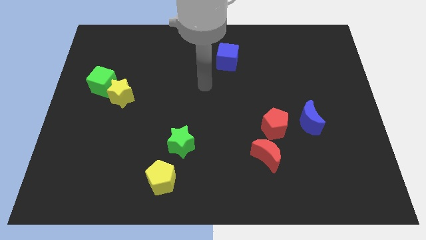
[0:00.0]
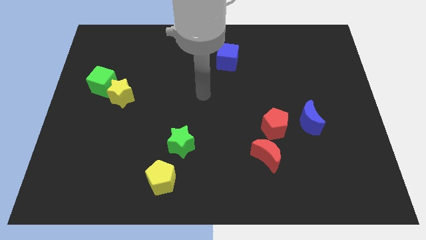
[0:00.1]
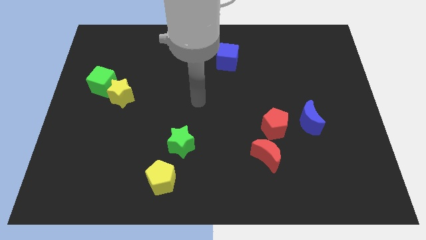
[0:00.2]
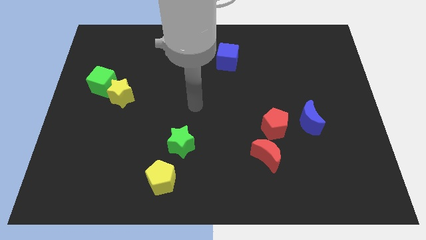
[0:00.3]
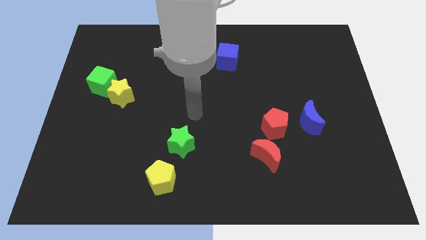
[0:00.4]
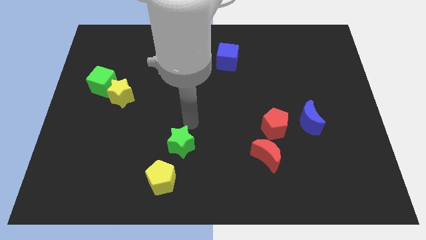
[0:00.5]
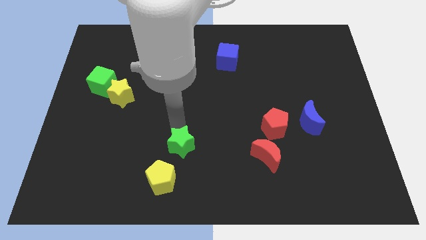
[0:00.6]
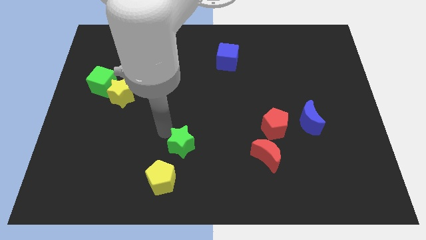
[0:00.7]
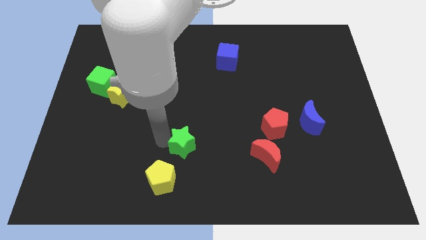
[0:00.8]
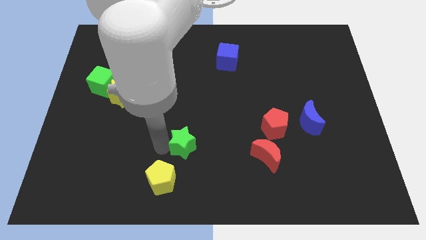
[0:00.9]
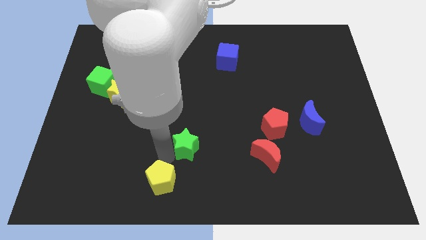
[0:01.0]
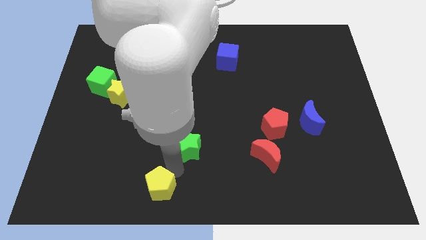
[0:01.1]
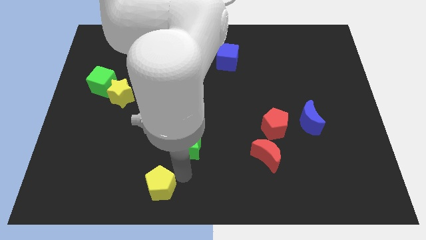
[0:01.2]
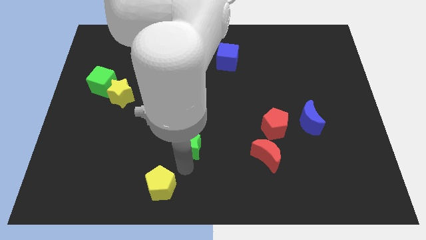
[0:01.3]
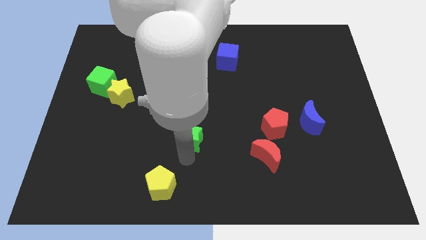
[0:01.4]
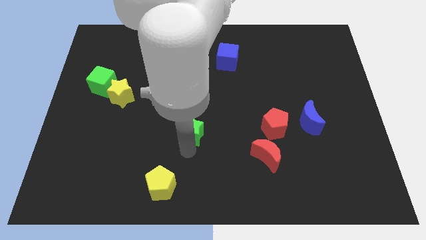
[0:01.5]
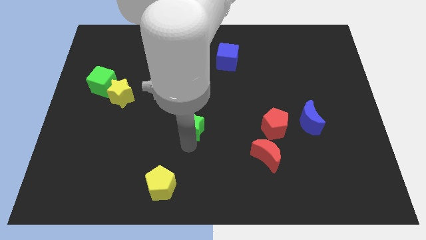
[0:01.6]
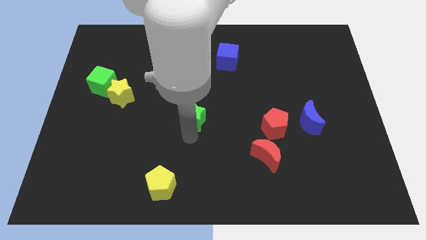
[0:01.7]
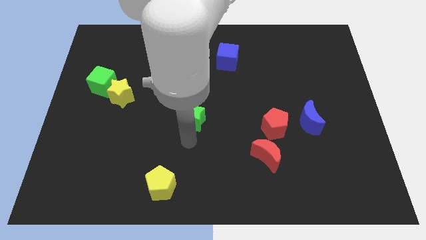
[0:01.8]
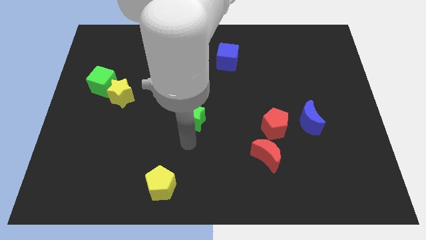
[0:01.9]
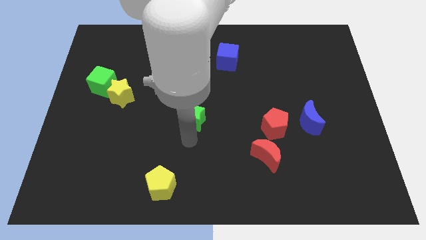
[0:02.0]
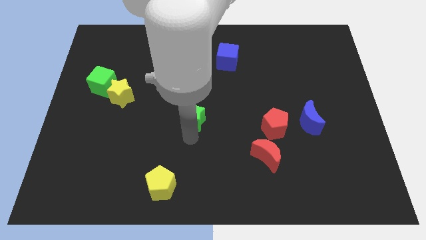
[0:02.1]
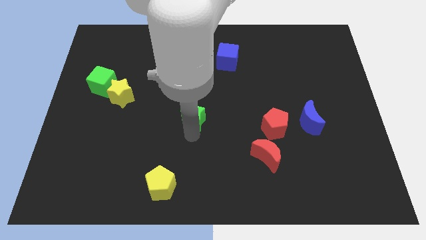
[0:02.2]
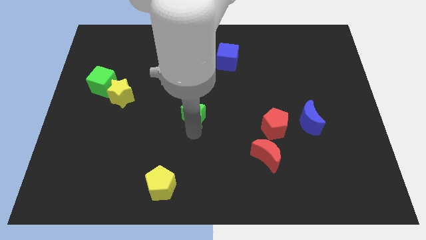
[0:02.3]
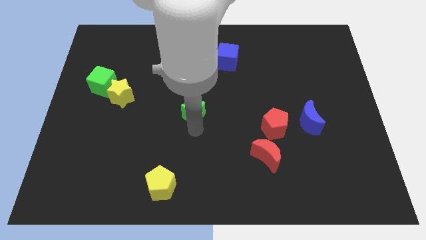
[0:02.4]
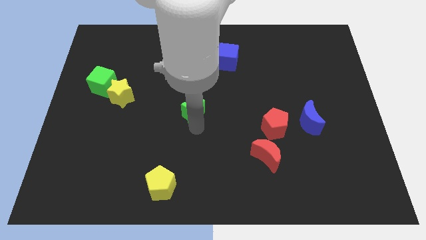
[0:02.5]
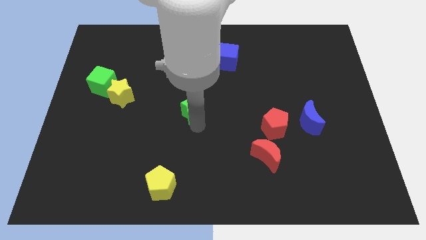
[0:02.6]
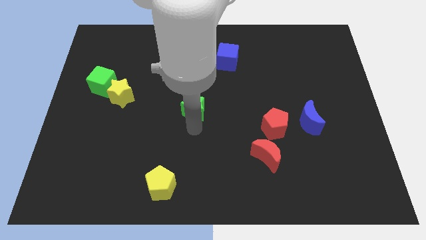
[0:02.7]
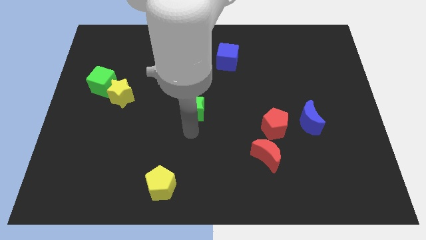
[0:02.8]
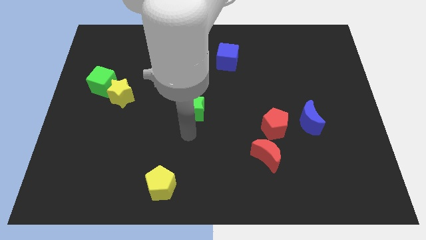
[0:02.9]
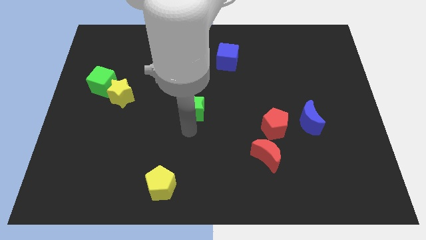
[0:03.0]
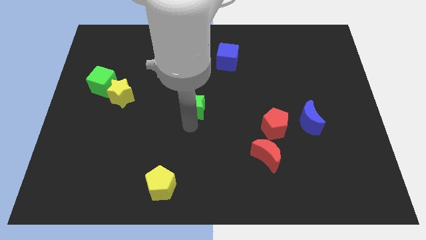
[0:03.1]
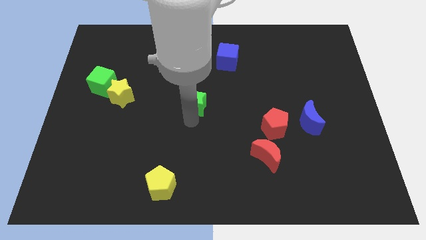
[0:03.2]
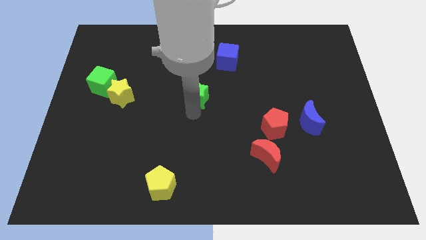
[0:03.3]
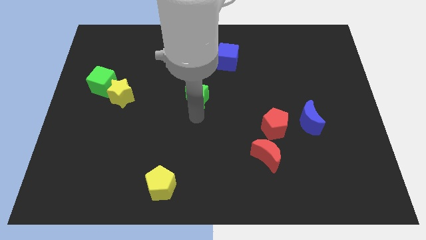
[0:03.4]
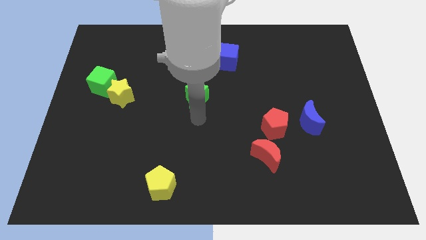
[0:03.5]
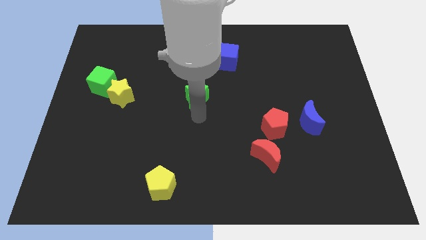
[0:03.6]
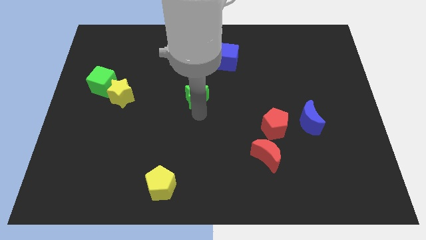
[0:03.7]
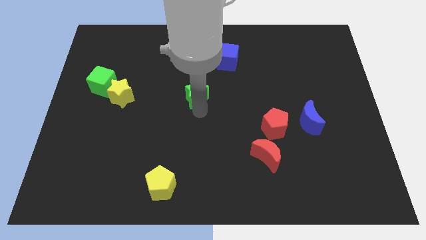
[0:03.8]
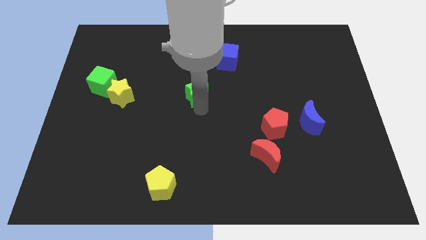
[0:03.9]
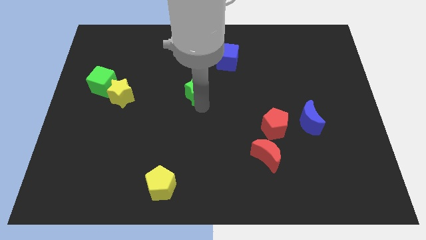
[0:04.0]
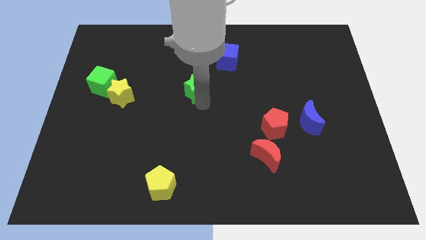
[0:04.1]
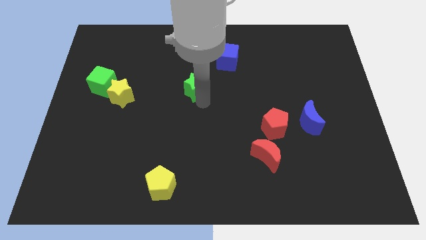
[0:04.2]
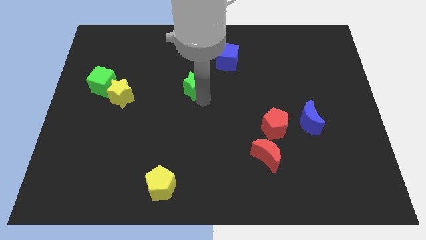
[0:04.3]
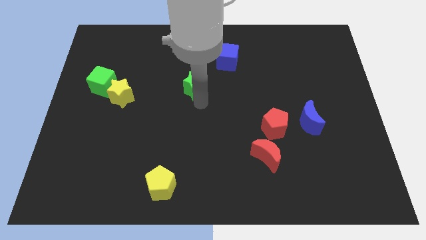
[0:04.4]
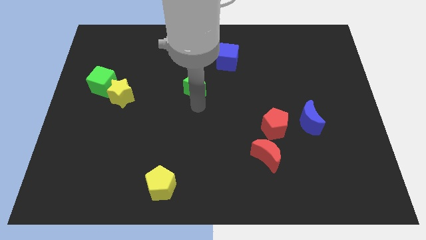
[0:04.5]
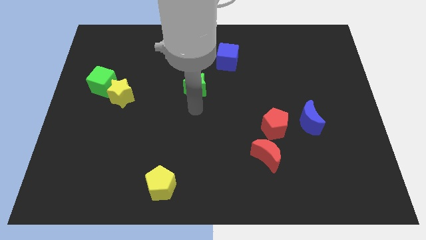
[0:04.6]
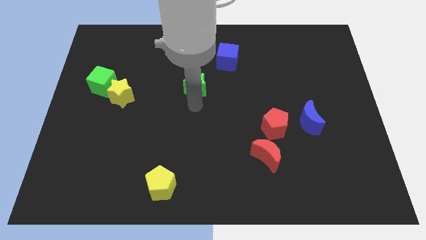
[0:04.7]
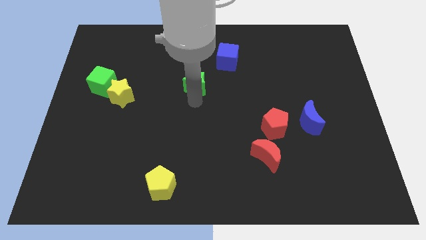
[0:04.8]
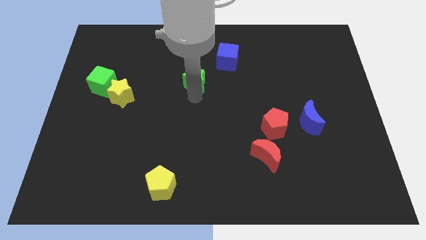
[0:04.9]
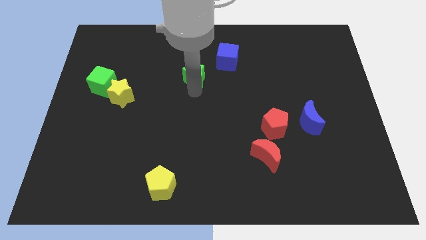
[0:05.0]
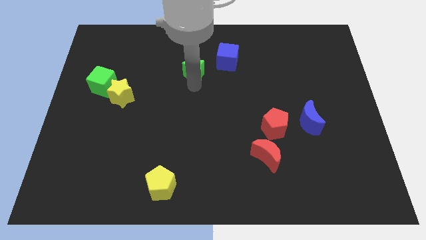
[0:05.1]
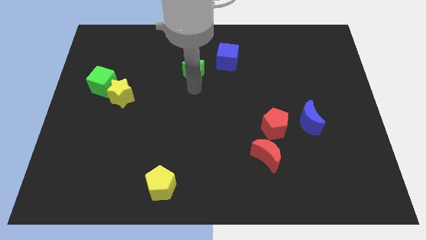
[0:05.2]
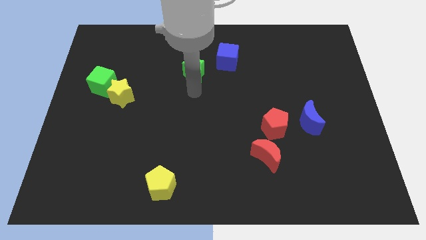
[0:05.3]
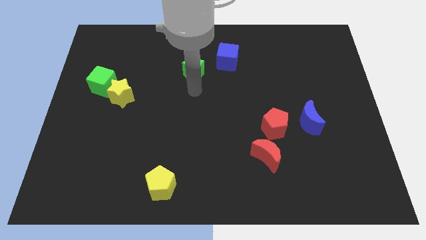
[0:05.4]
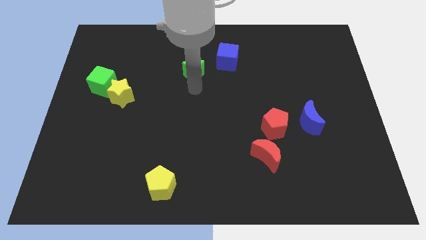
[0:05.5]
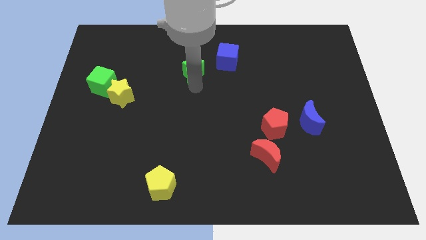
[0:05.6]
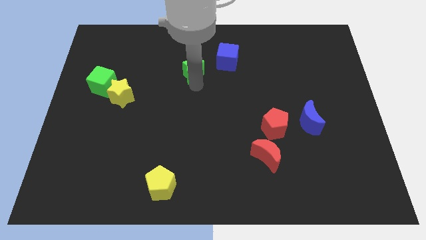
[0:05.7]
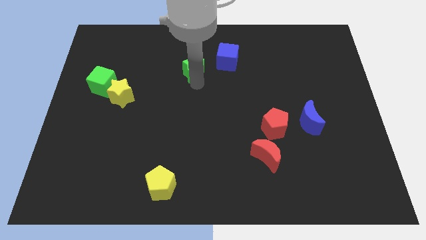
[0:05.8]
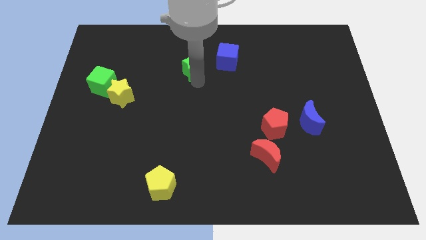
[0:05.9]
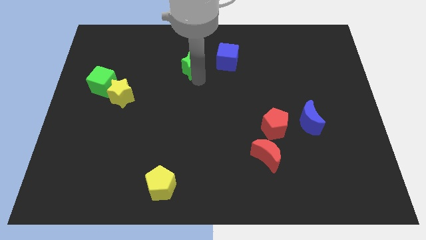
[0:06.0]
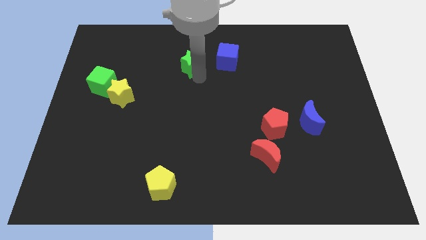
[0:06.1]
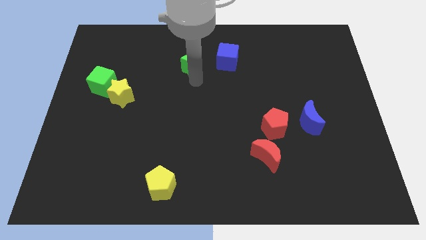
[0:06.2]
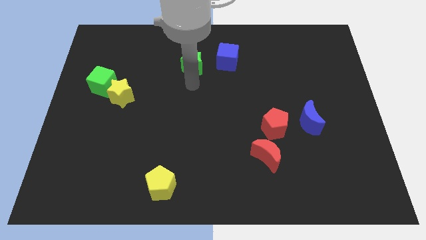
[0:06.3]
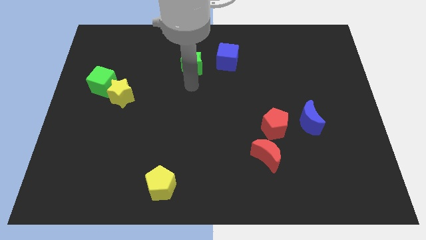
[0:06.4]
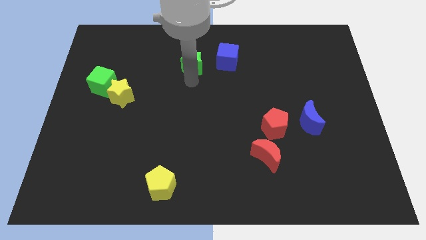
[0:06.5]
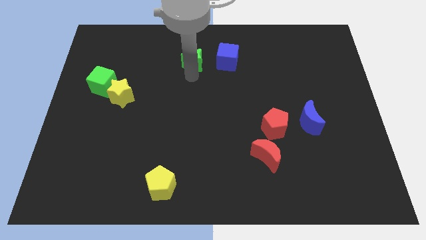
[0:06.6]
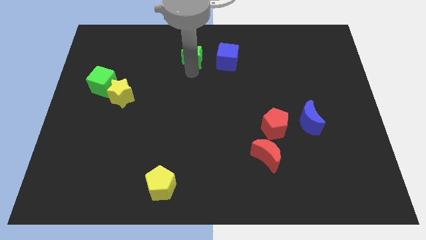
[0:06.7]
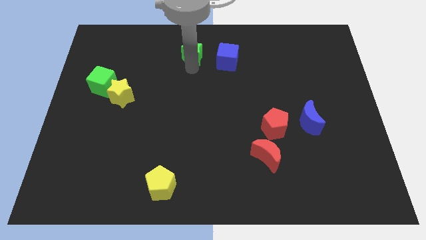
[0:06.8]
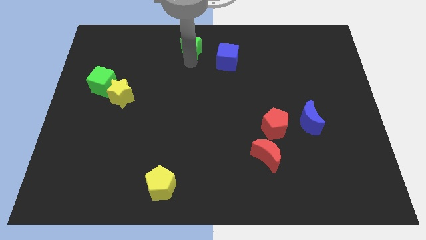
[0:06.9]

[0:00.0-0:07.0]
put the green star to the towards your base
